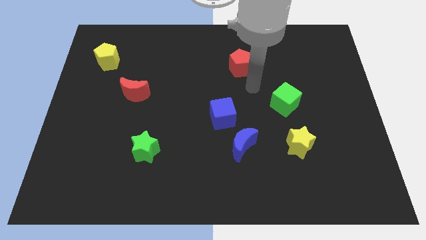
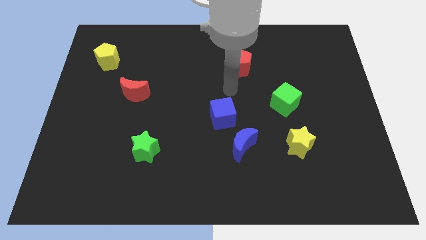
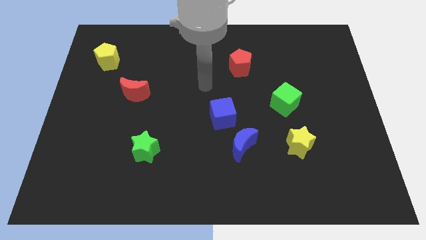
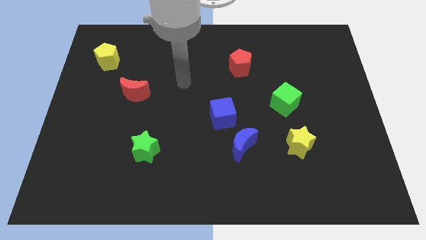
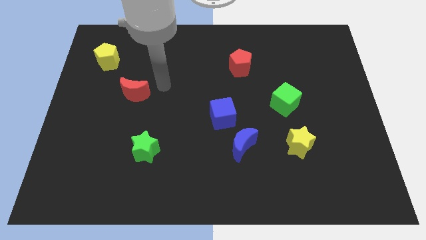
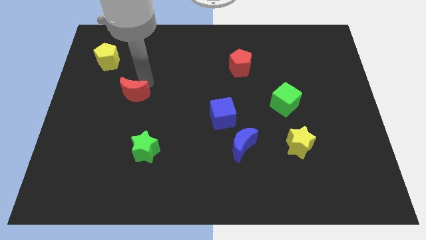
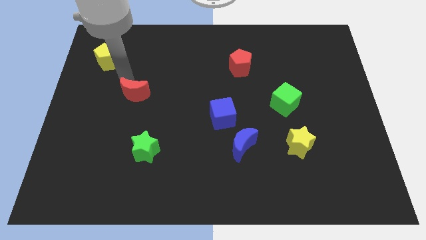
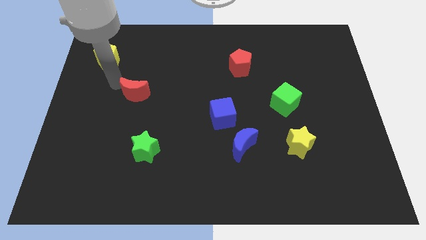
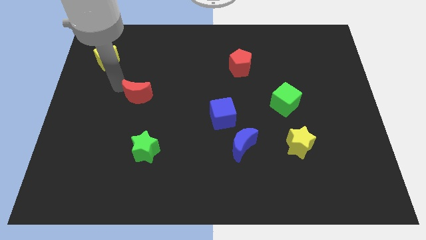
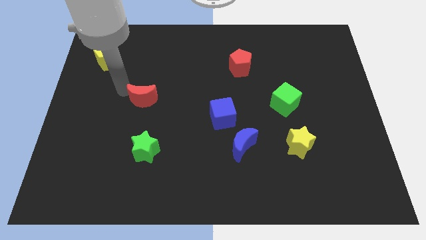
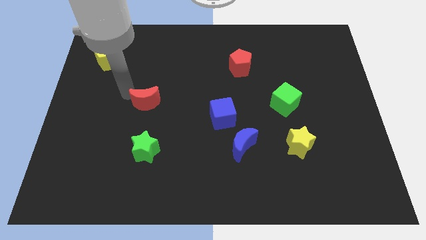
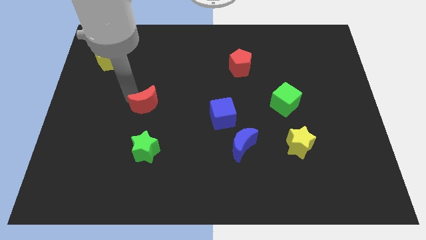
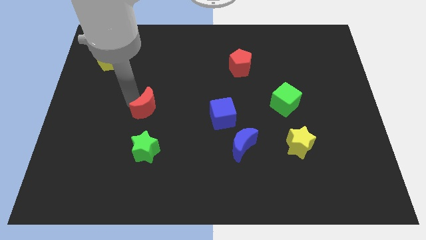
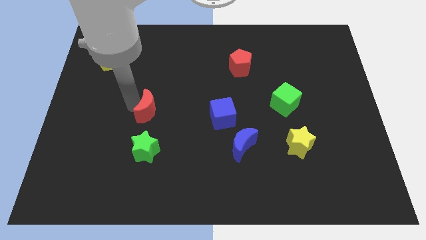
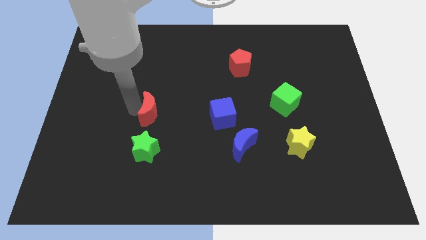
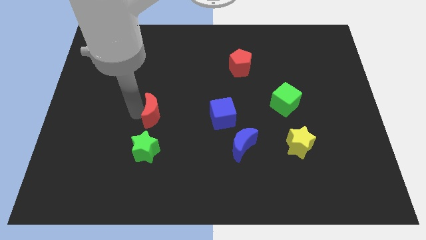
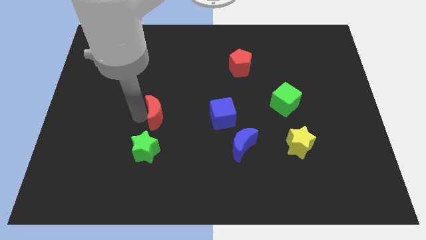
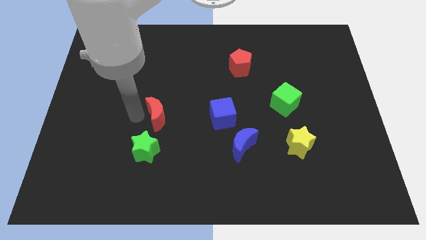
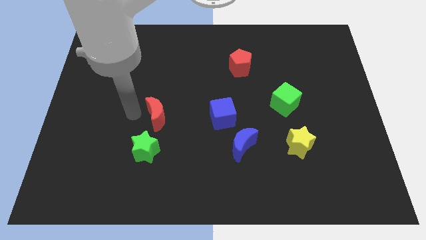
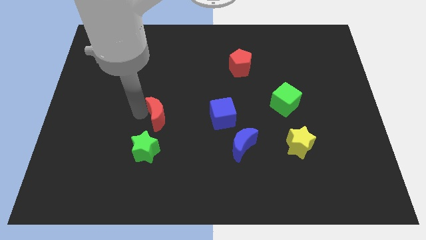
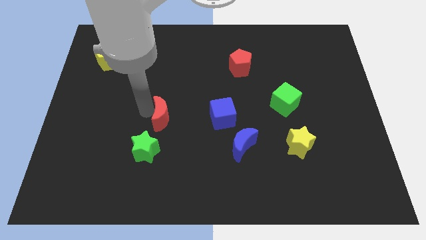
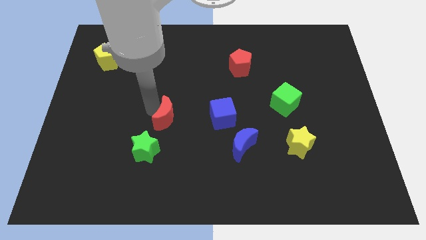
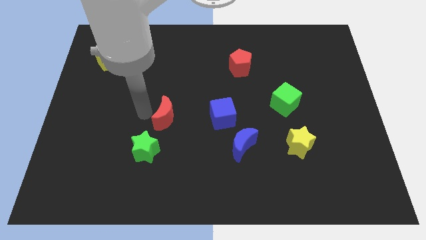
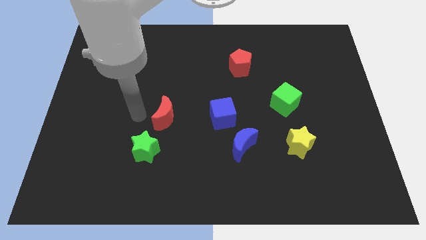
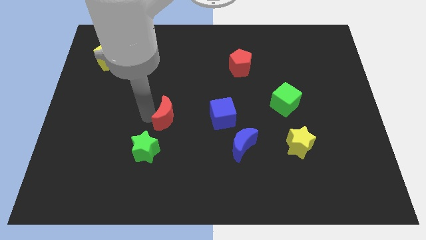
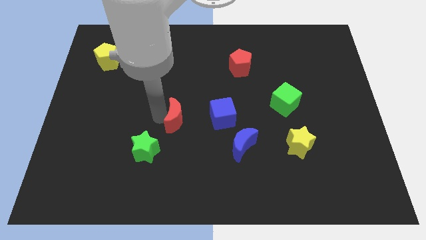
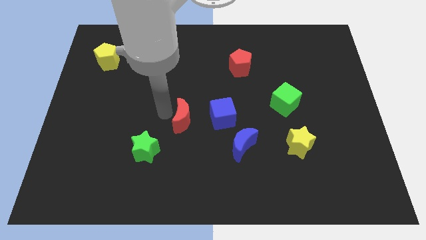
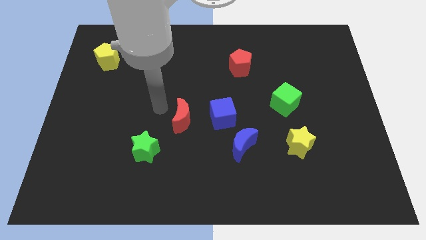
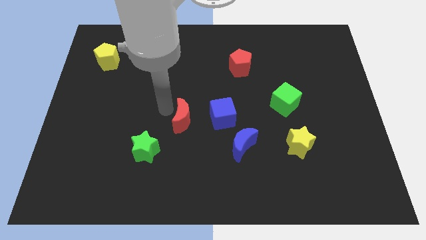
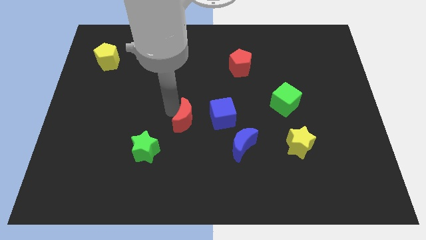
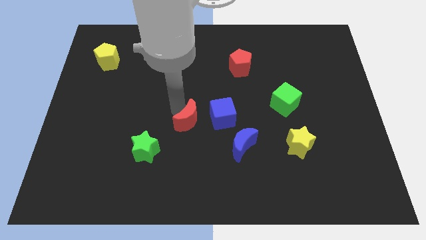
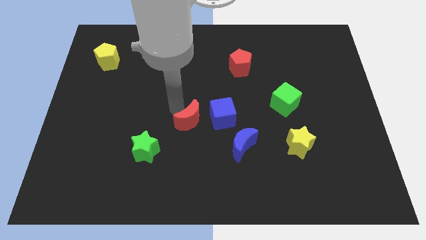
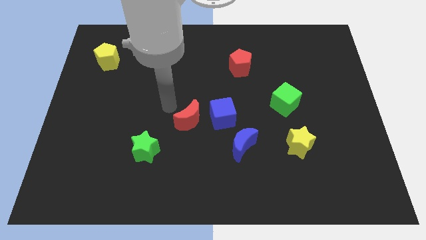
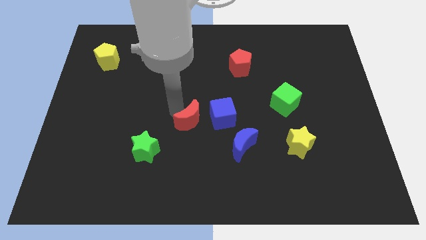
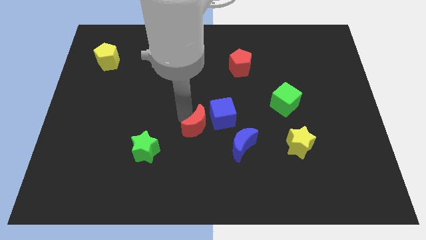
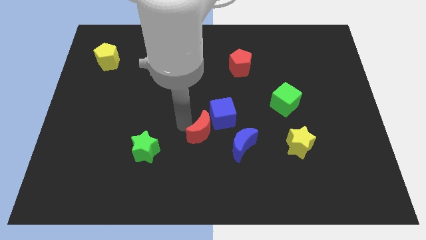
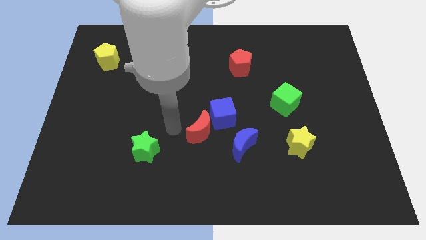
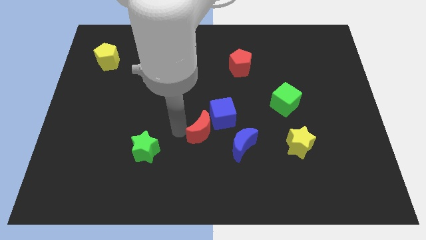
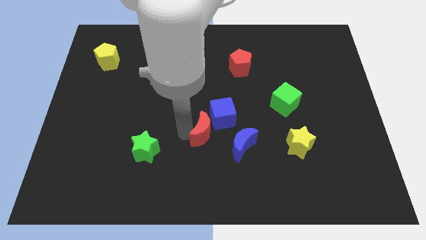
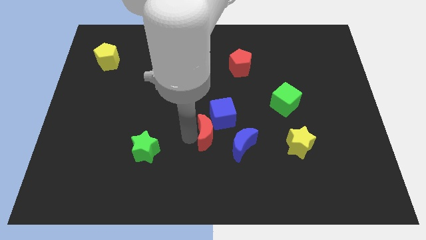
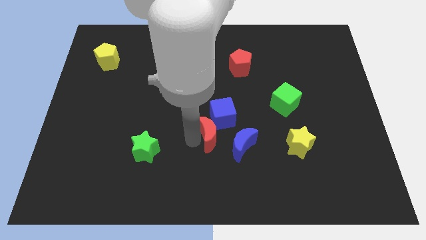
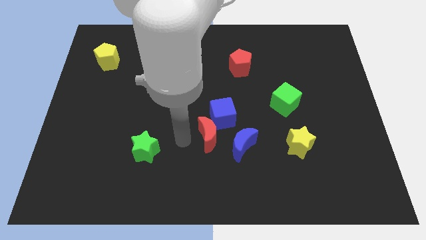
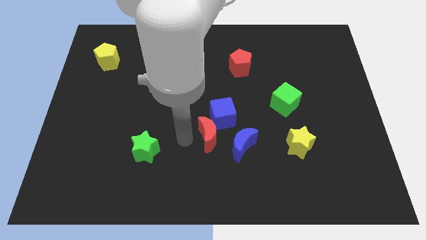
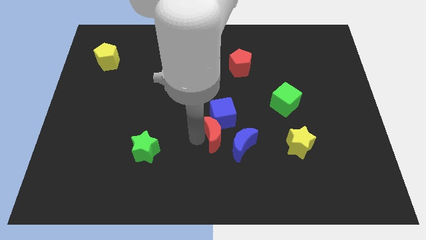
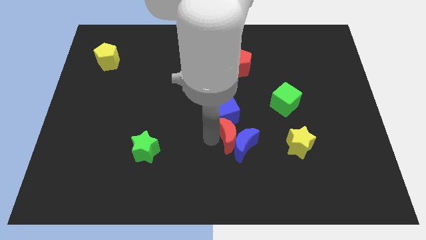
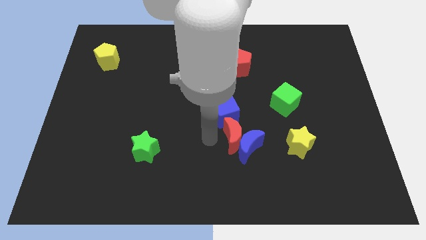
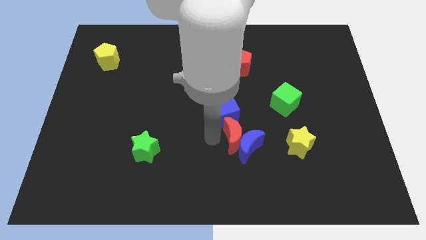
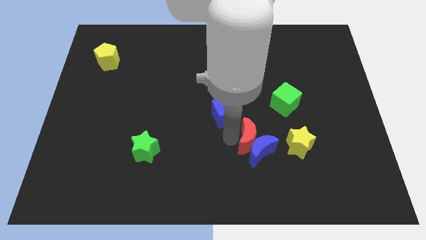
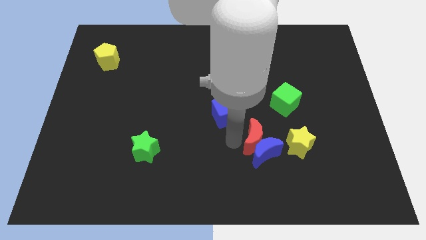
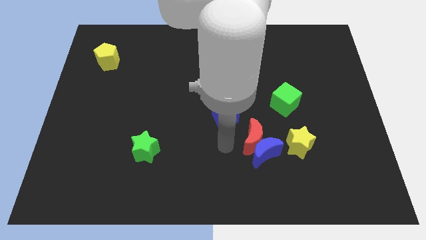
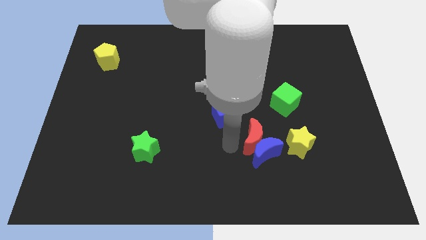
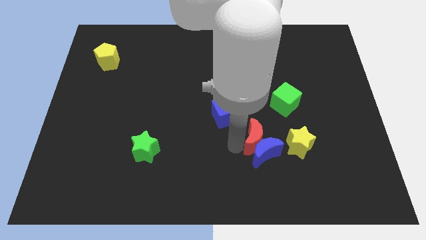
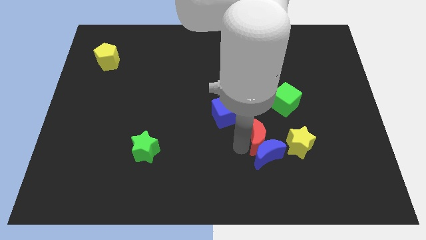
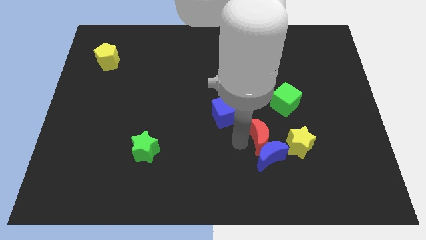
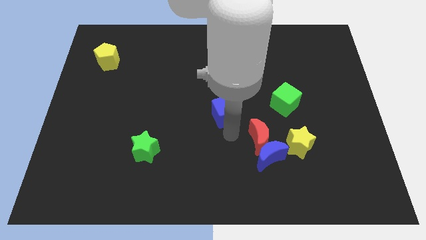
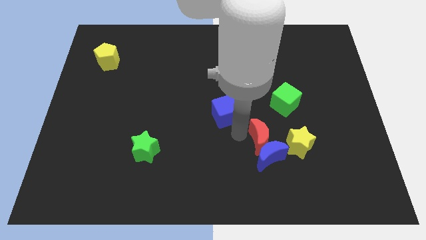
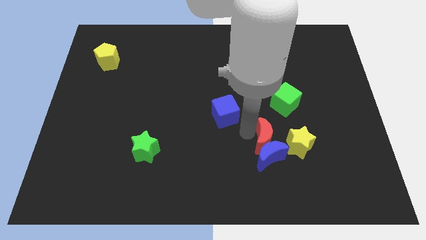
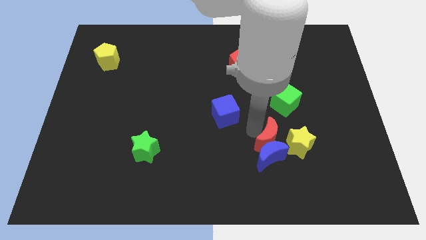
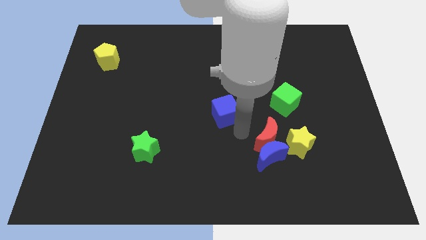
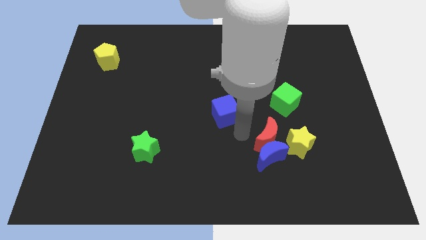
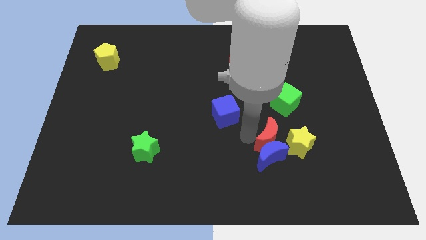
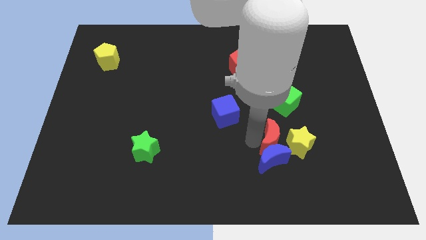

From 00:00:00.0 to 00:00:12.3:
slide the red moon close to the yellow star

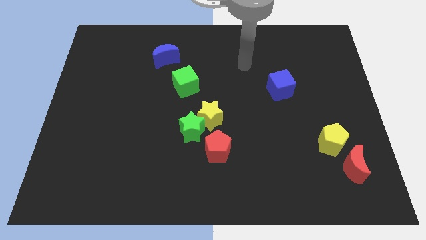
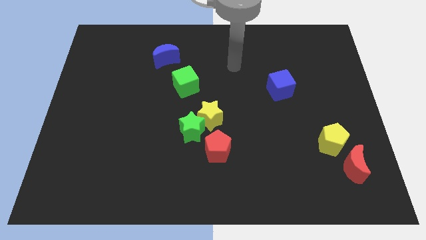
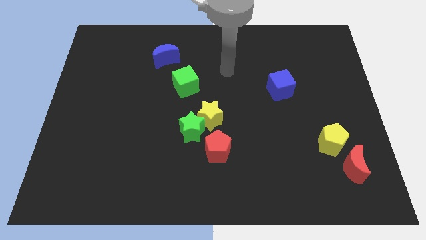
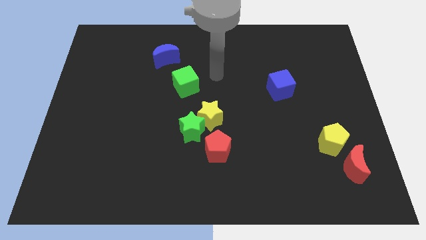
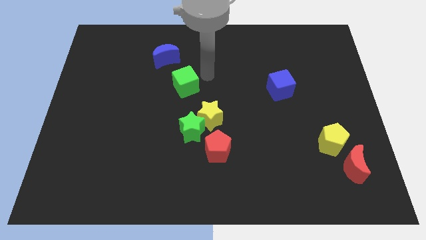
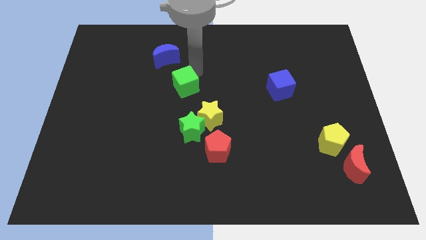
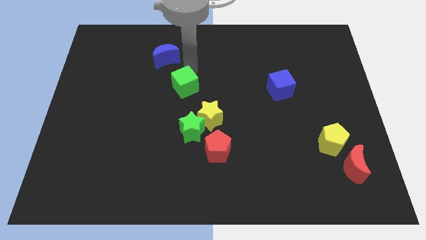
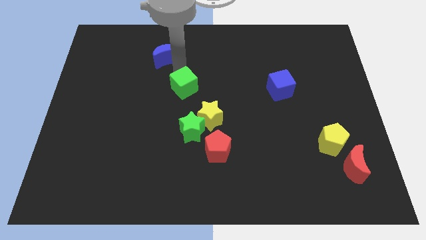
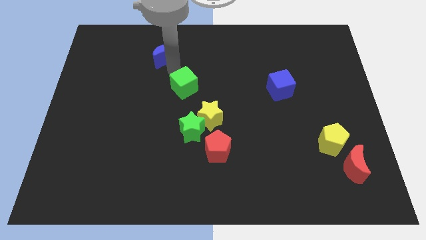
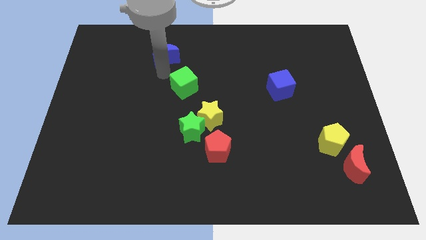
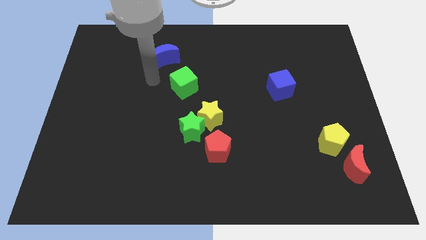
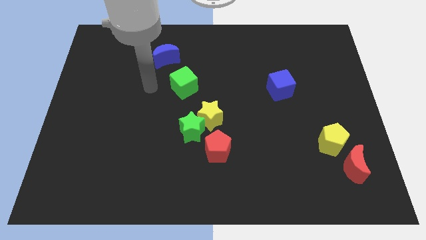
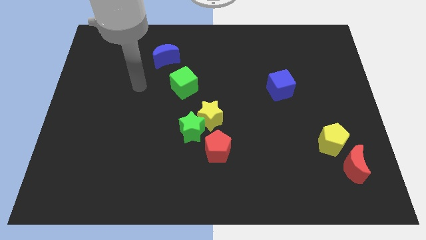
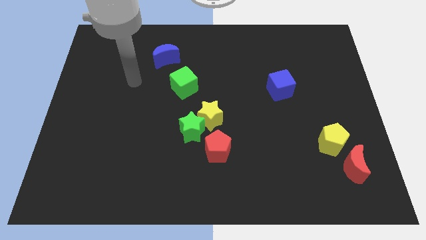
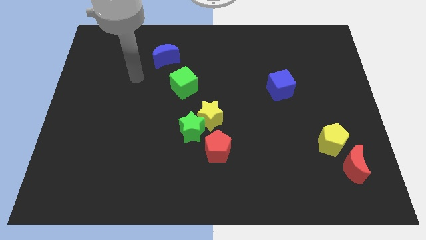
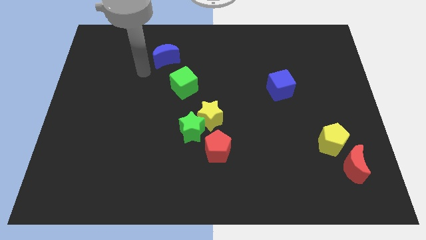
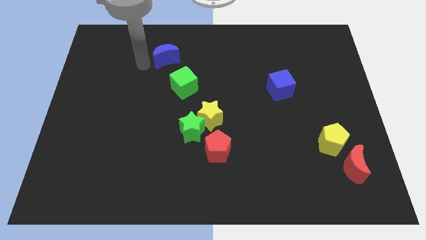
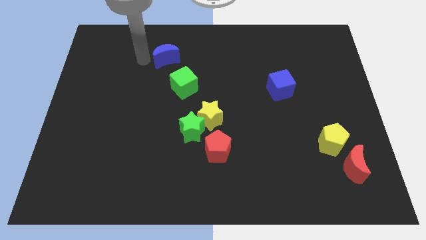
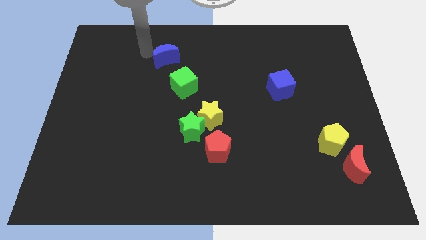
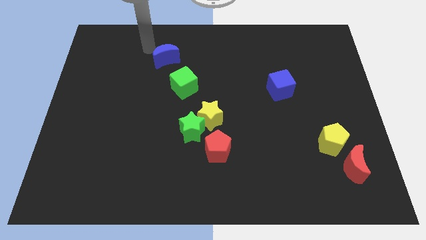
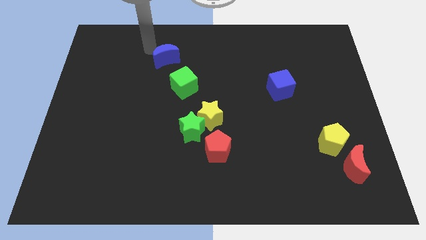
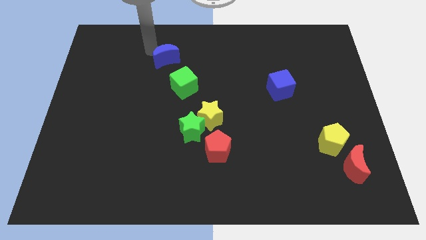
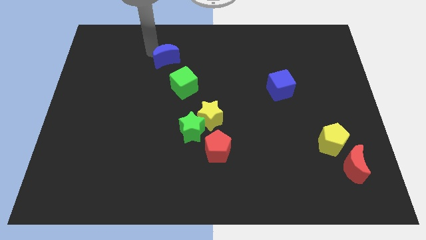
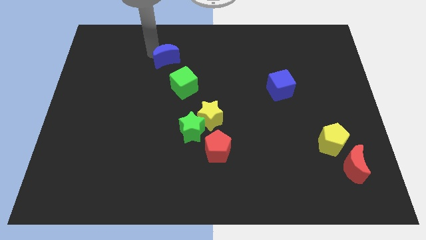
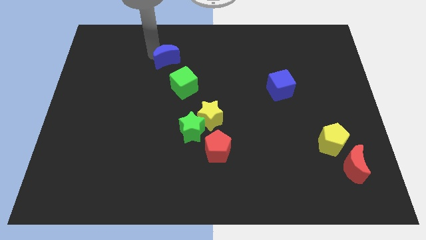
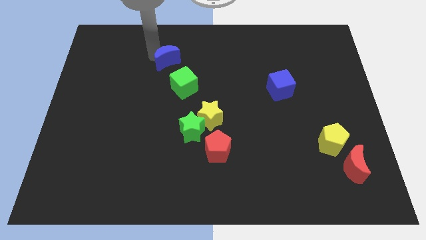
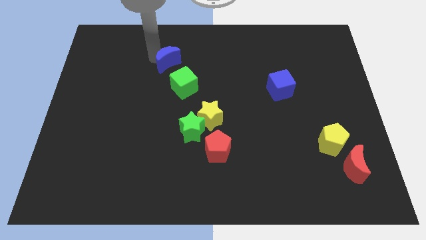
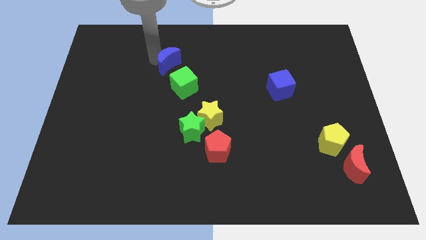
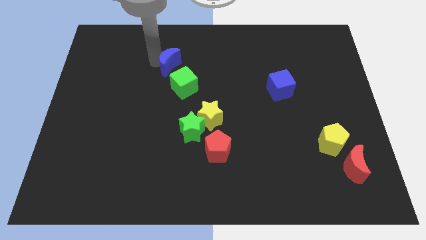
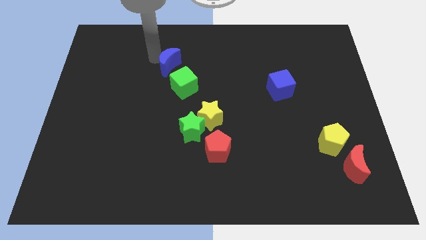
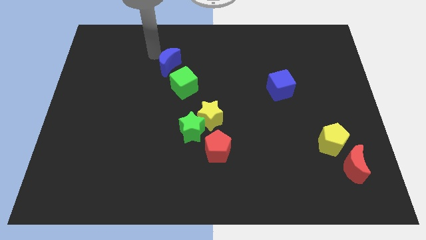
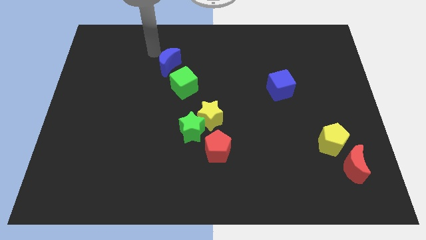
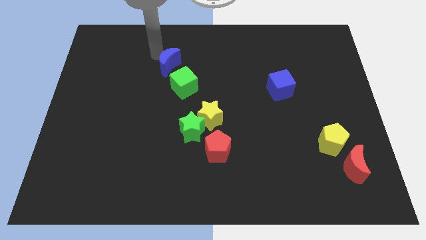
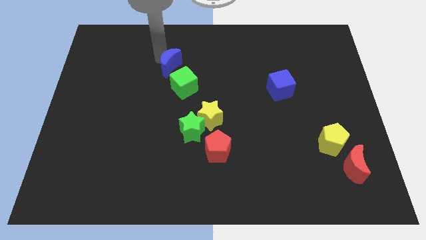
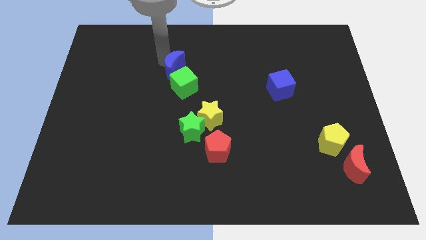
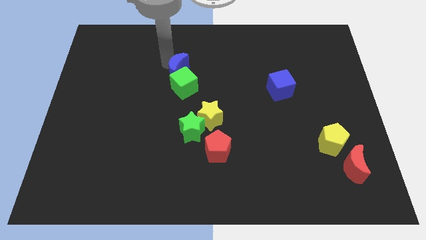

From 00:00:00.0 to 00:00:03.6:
put the blue moon towards the green cube
